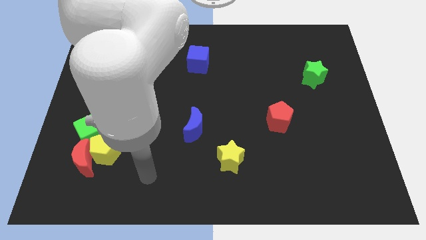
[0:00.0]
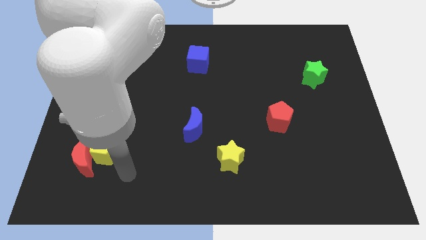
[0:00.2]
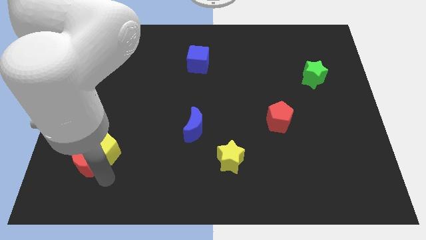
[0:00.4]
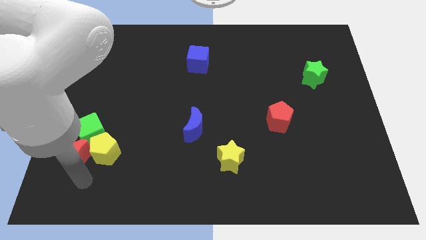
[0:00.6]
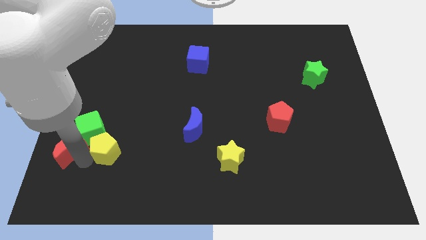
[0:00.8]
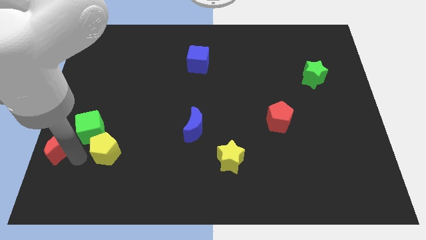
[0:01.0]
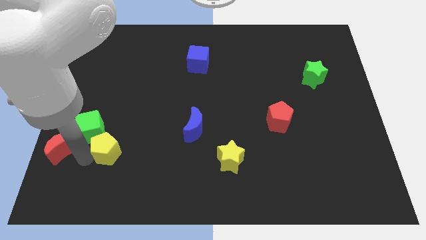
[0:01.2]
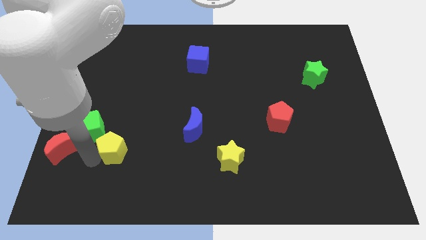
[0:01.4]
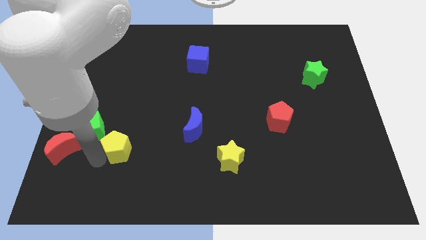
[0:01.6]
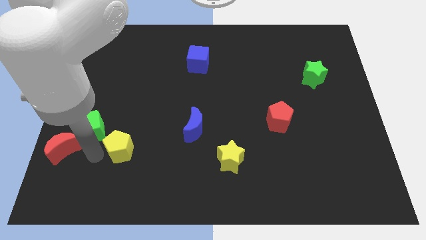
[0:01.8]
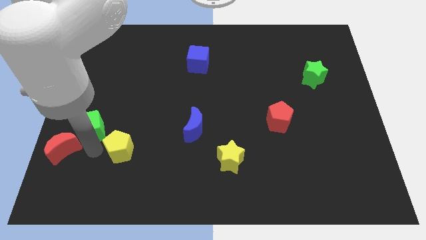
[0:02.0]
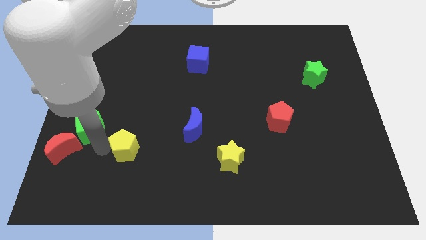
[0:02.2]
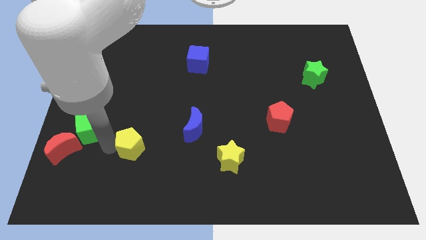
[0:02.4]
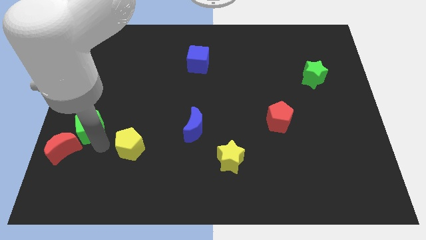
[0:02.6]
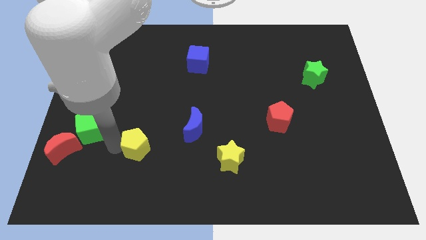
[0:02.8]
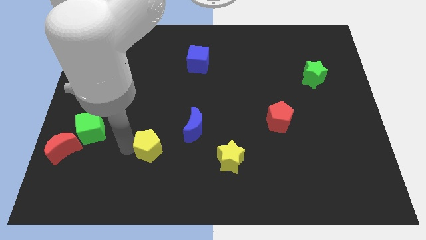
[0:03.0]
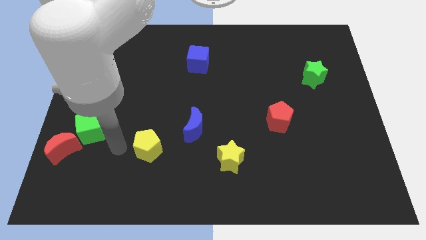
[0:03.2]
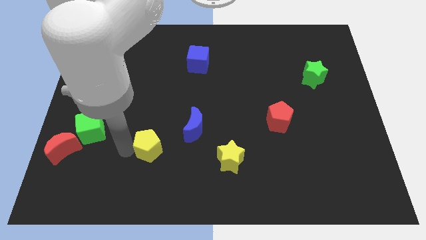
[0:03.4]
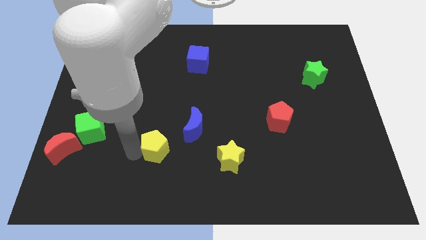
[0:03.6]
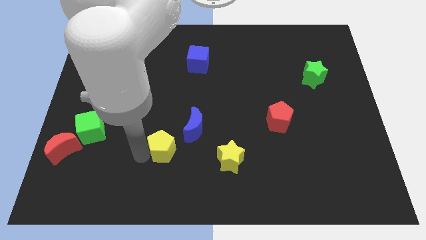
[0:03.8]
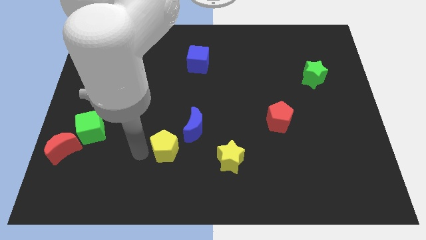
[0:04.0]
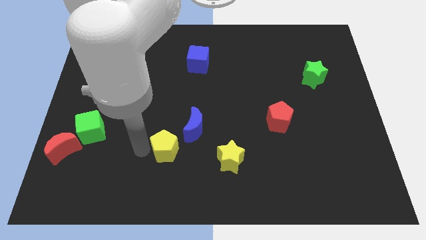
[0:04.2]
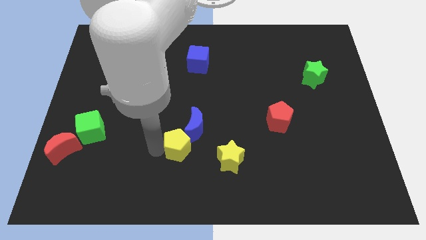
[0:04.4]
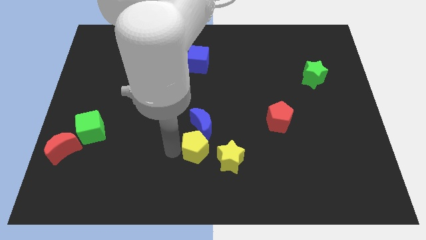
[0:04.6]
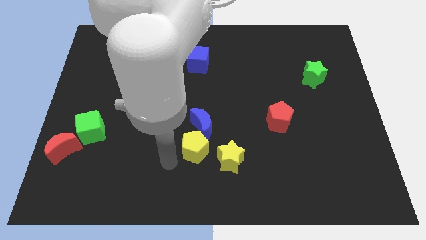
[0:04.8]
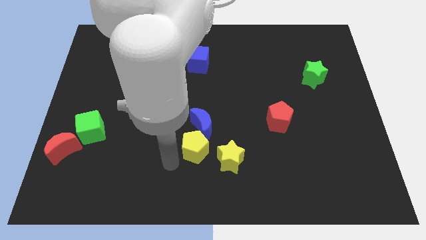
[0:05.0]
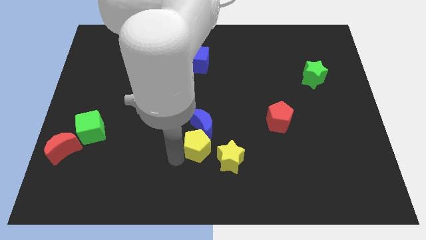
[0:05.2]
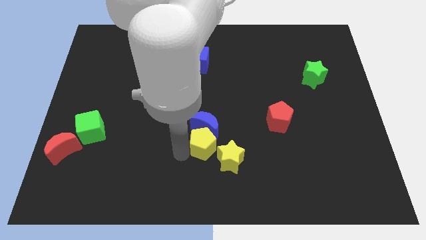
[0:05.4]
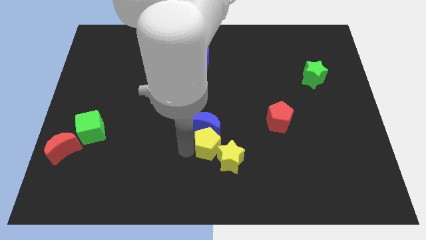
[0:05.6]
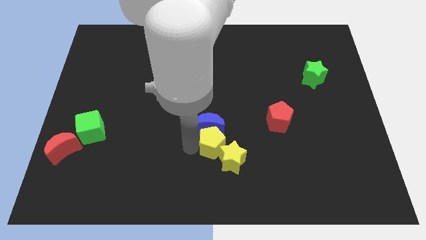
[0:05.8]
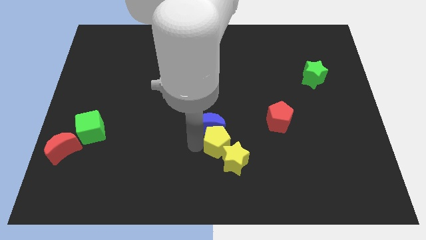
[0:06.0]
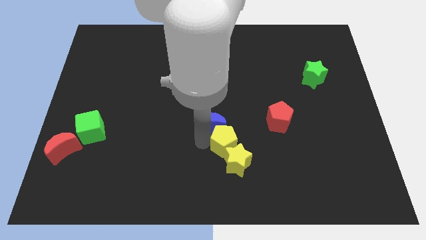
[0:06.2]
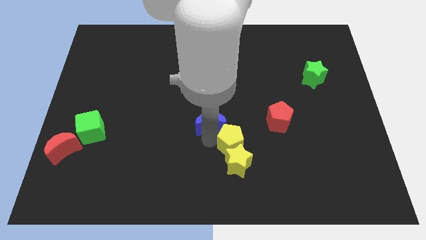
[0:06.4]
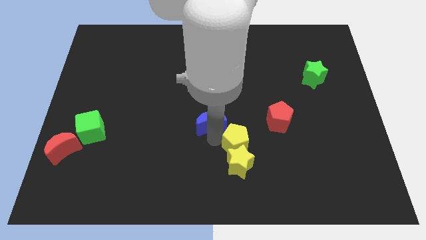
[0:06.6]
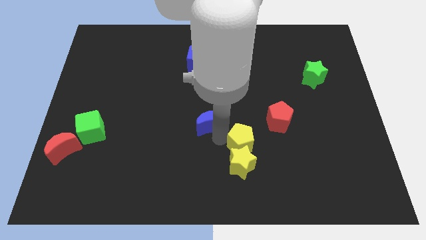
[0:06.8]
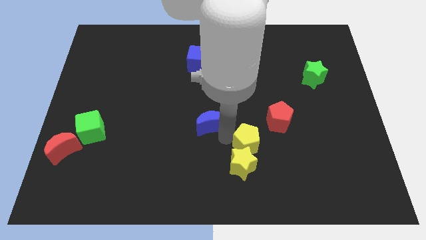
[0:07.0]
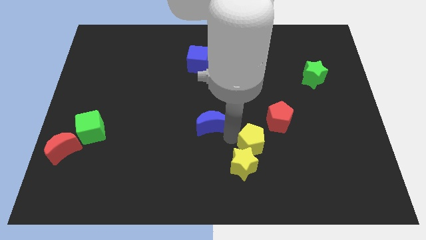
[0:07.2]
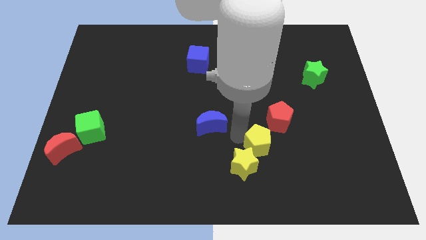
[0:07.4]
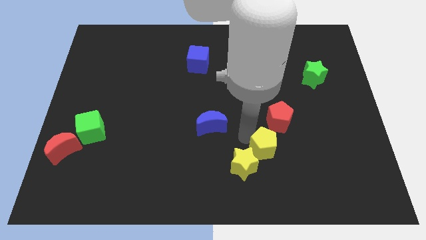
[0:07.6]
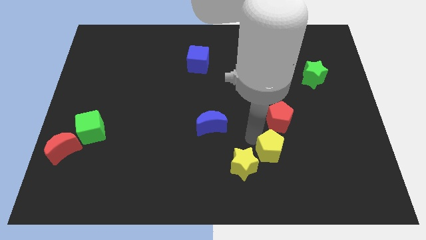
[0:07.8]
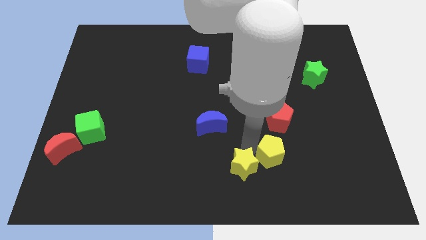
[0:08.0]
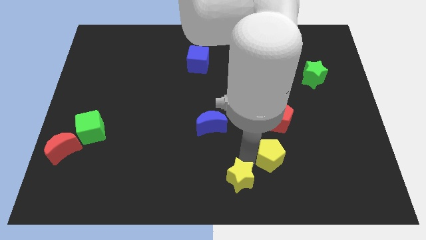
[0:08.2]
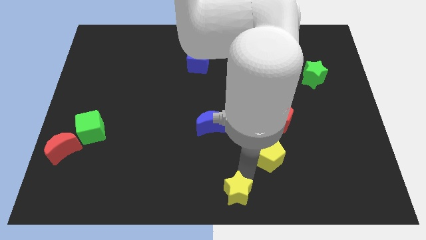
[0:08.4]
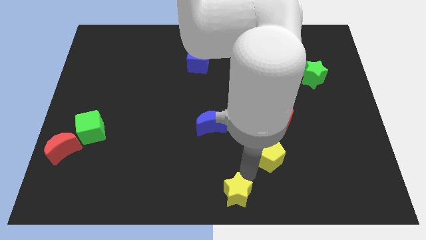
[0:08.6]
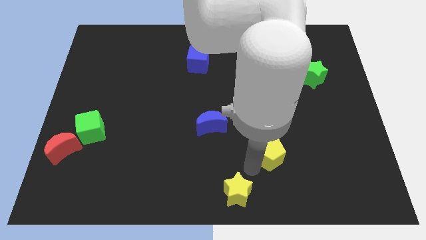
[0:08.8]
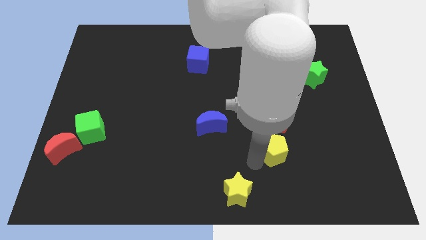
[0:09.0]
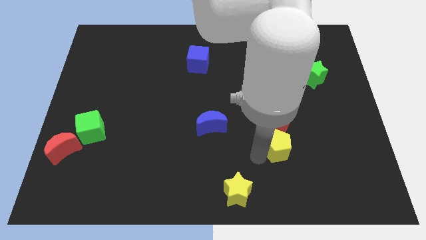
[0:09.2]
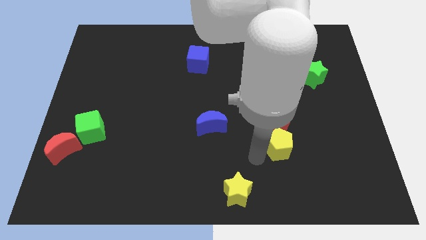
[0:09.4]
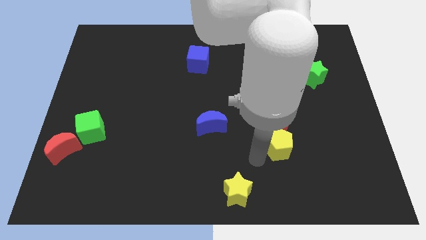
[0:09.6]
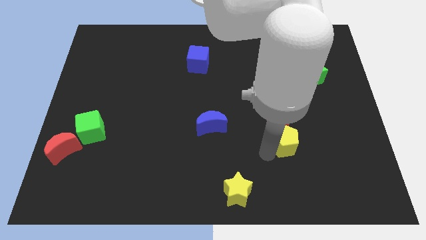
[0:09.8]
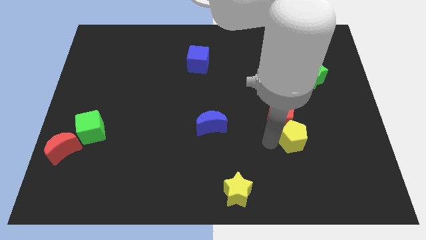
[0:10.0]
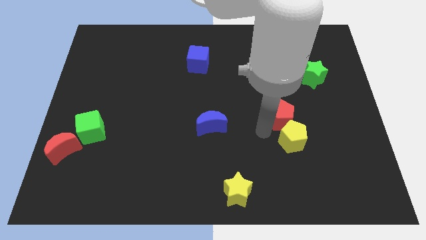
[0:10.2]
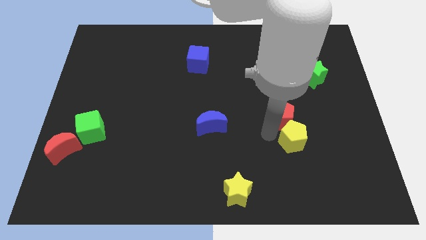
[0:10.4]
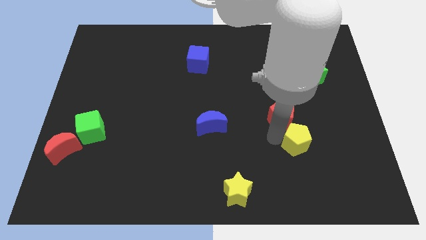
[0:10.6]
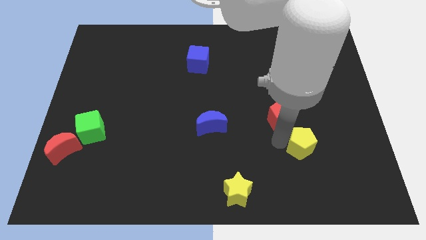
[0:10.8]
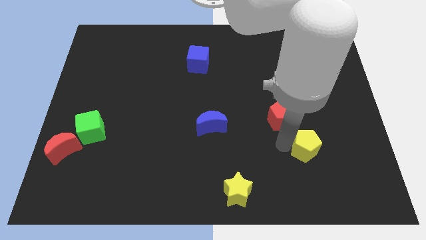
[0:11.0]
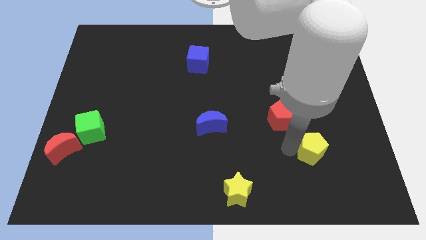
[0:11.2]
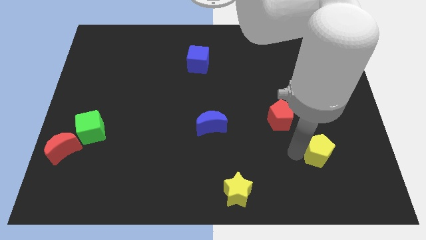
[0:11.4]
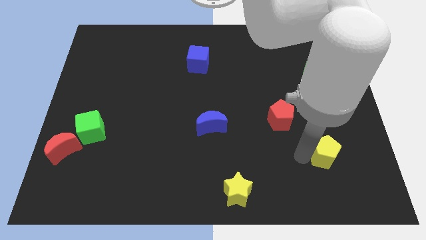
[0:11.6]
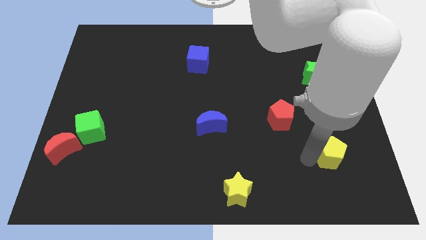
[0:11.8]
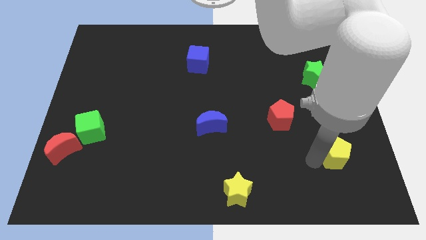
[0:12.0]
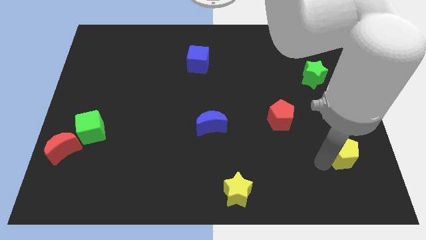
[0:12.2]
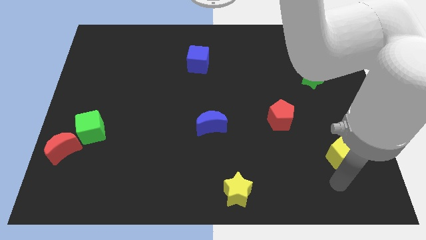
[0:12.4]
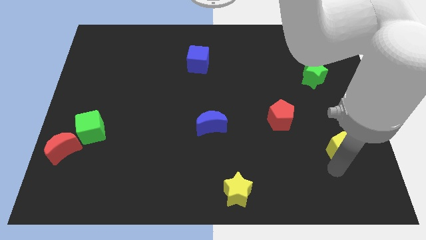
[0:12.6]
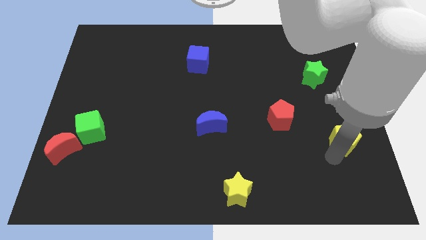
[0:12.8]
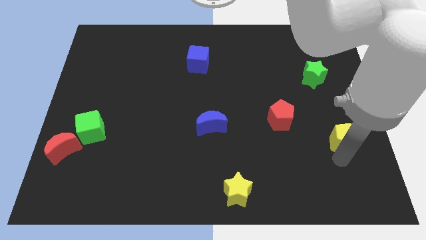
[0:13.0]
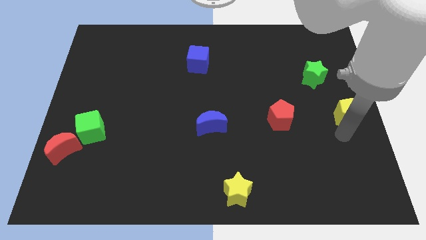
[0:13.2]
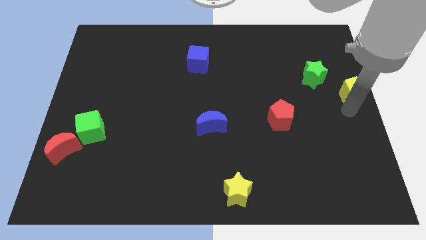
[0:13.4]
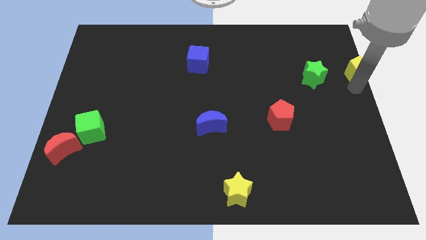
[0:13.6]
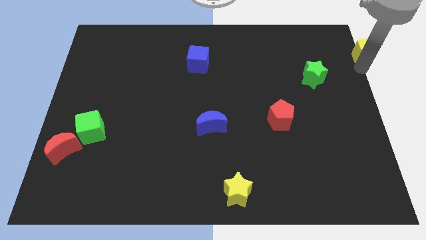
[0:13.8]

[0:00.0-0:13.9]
slide the yellow pentagon to the top right of the board

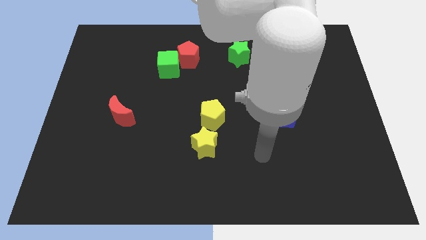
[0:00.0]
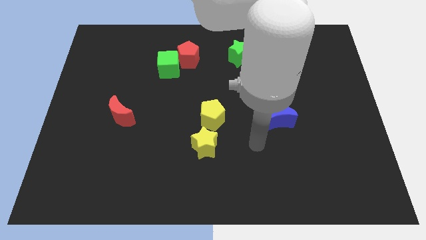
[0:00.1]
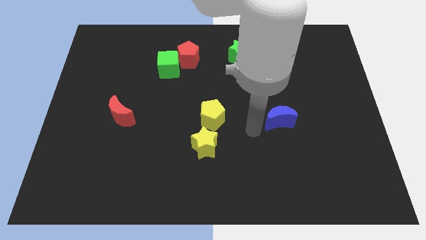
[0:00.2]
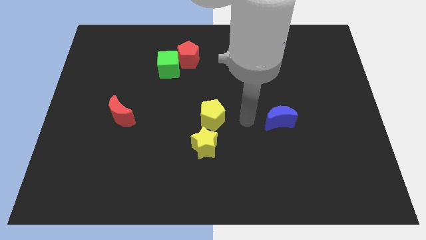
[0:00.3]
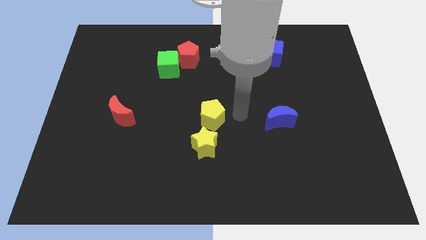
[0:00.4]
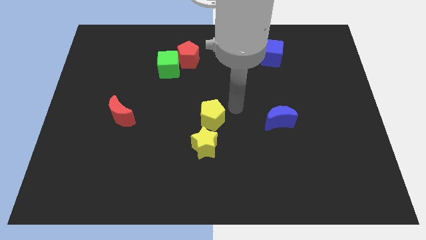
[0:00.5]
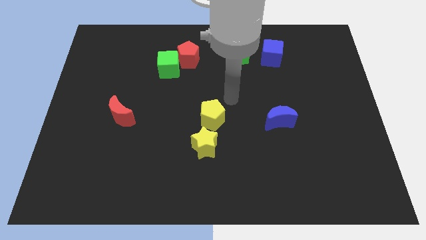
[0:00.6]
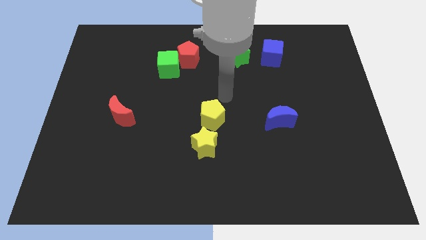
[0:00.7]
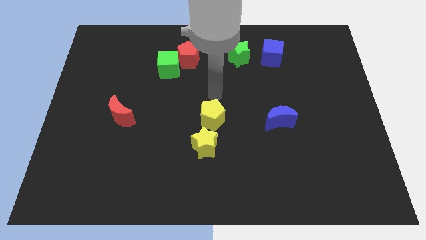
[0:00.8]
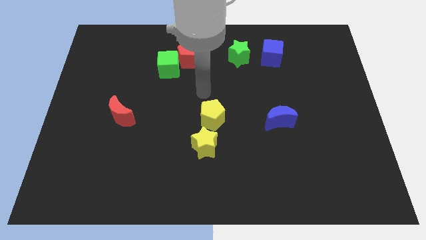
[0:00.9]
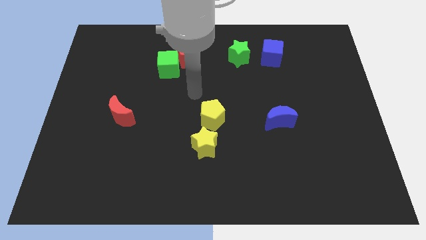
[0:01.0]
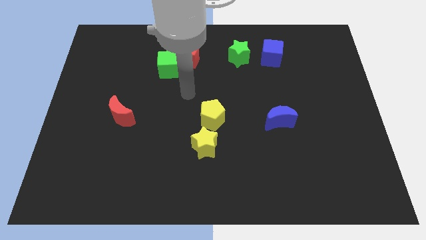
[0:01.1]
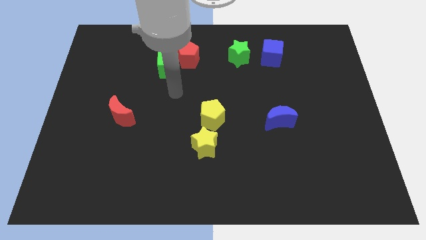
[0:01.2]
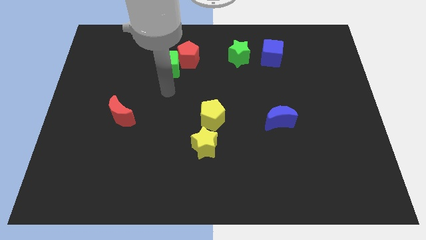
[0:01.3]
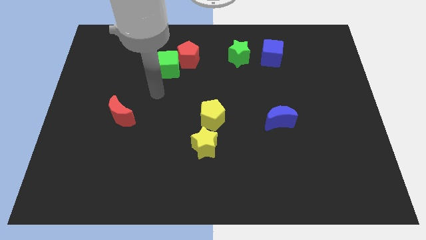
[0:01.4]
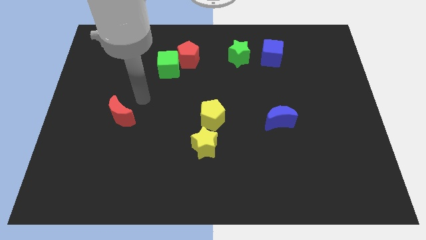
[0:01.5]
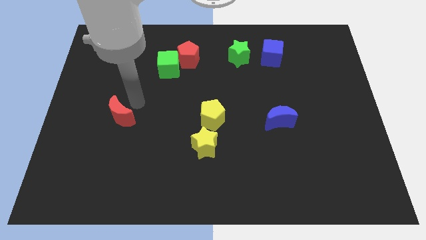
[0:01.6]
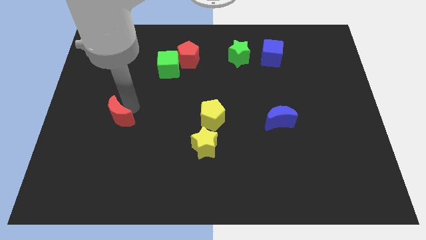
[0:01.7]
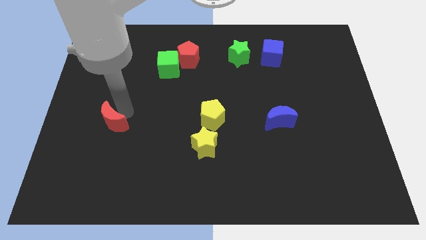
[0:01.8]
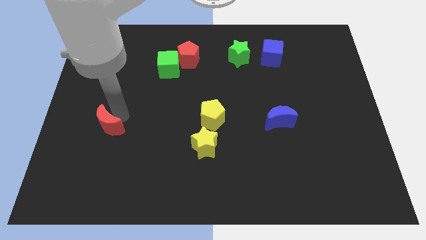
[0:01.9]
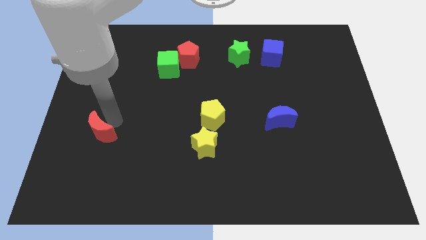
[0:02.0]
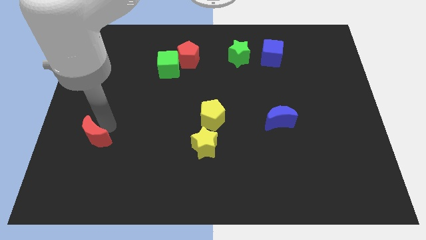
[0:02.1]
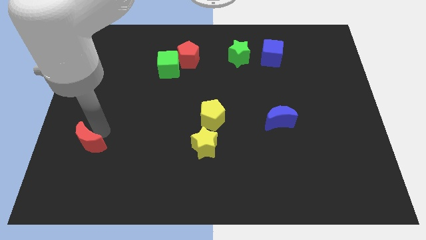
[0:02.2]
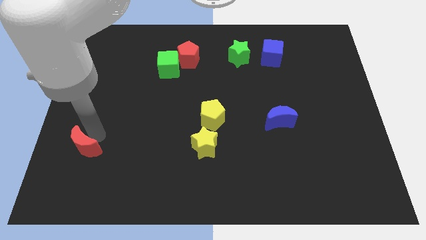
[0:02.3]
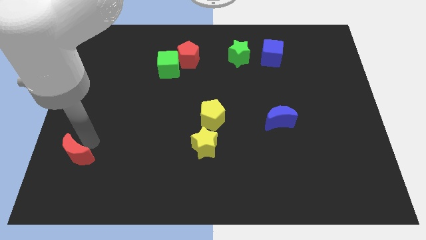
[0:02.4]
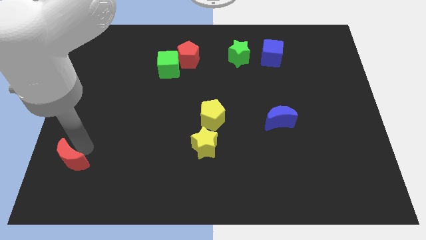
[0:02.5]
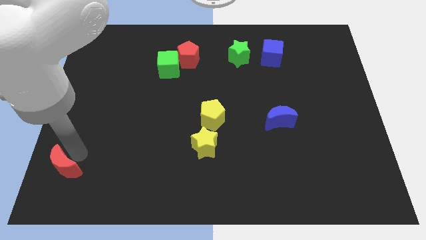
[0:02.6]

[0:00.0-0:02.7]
slide the red moon to the bottom left corner
